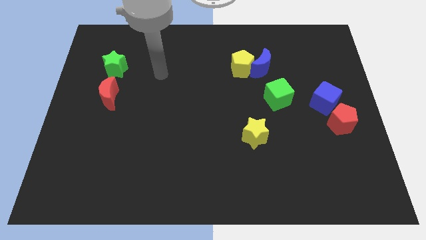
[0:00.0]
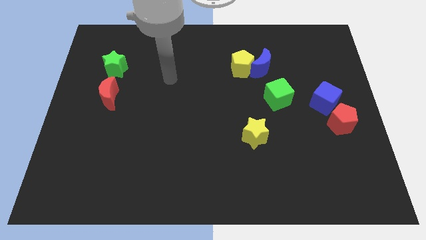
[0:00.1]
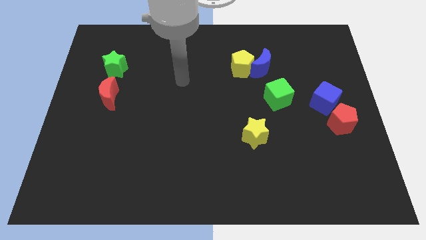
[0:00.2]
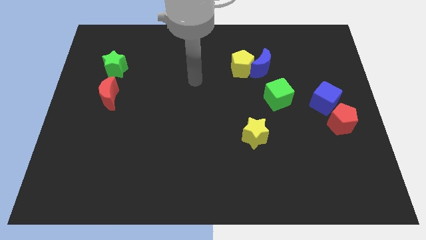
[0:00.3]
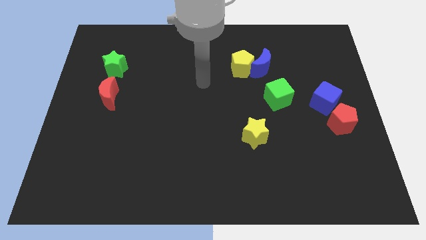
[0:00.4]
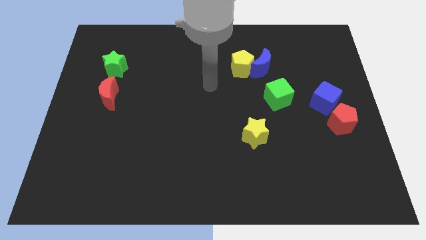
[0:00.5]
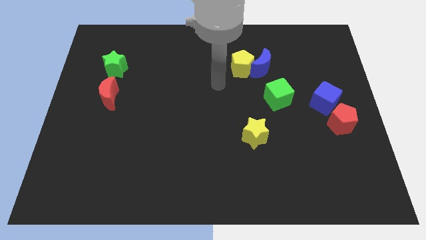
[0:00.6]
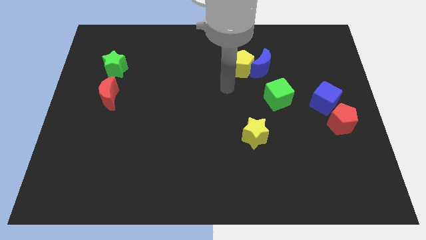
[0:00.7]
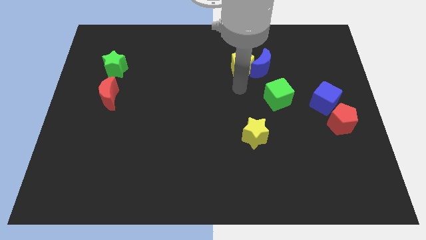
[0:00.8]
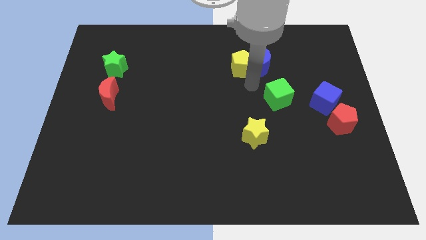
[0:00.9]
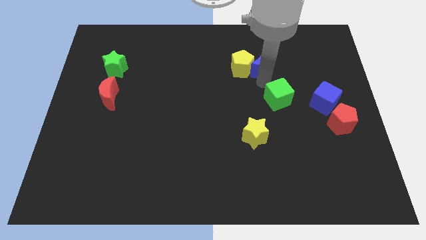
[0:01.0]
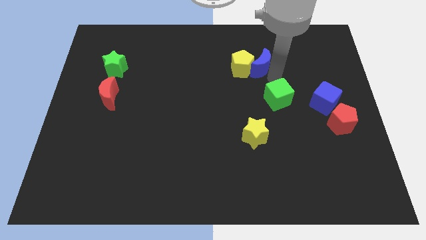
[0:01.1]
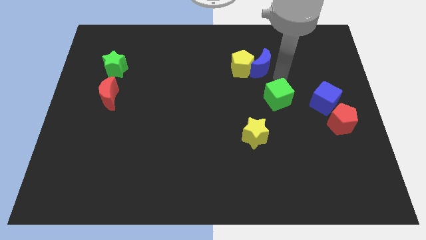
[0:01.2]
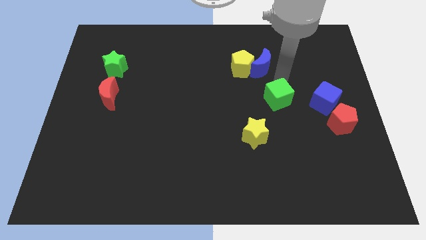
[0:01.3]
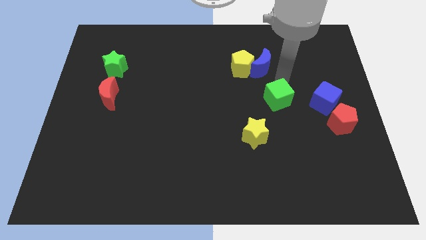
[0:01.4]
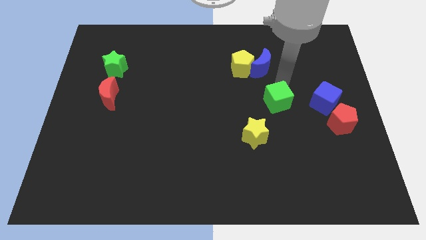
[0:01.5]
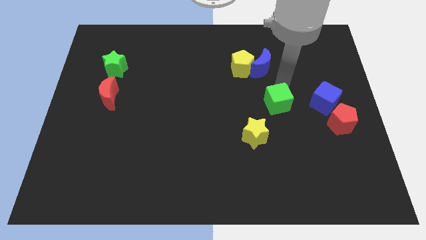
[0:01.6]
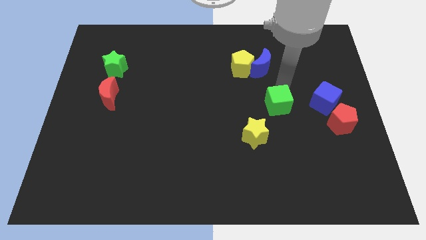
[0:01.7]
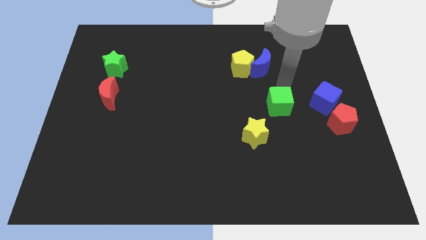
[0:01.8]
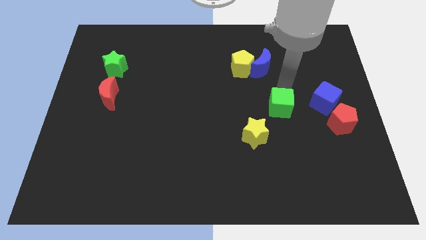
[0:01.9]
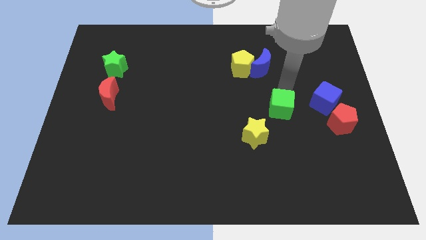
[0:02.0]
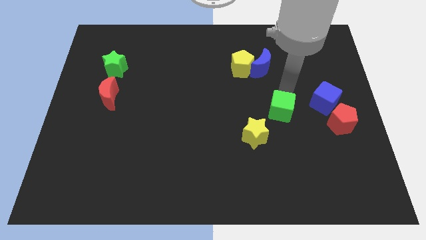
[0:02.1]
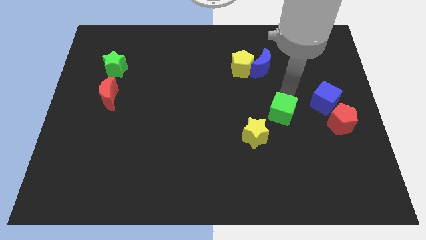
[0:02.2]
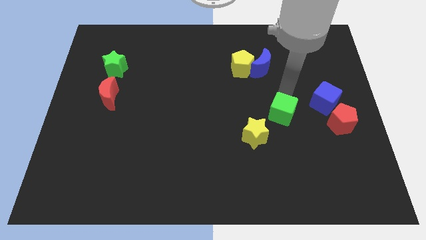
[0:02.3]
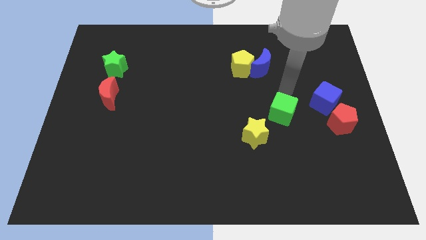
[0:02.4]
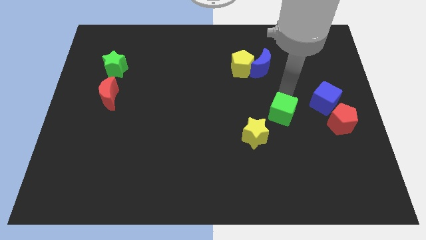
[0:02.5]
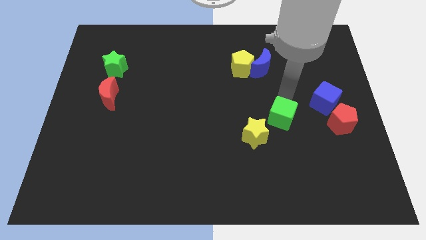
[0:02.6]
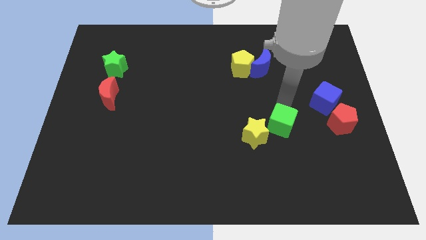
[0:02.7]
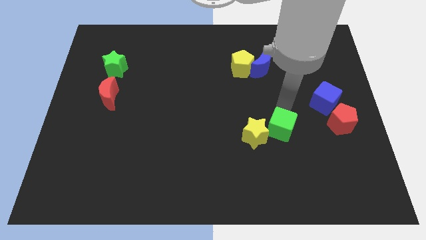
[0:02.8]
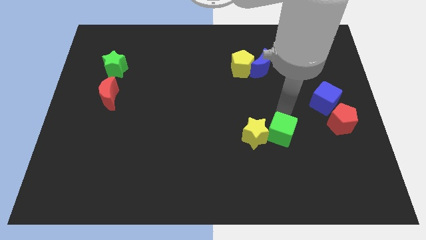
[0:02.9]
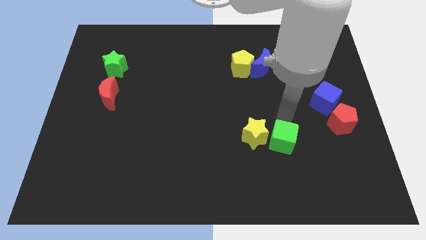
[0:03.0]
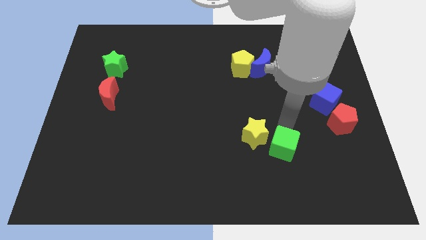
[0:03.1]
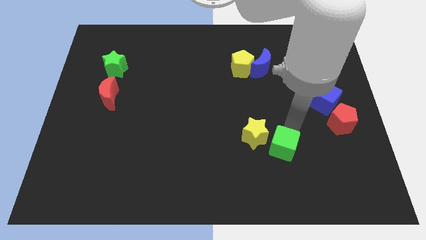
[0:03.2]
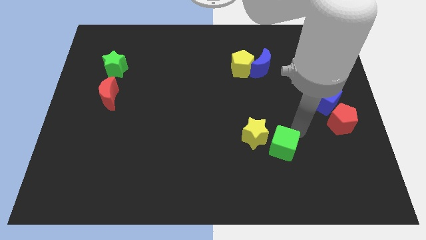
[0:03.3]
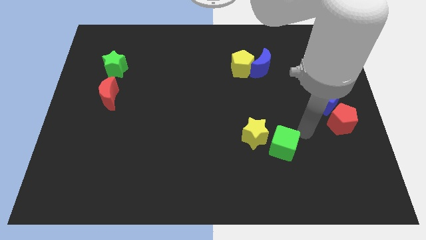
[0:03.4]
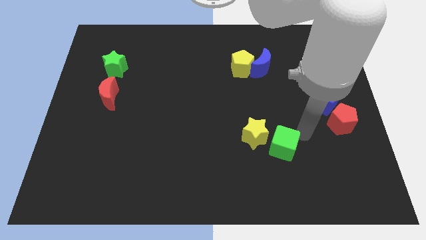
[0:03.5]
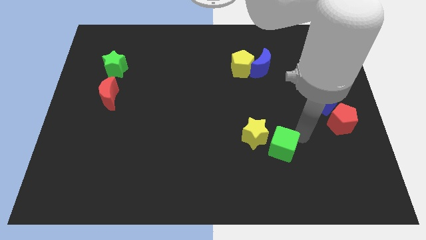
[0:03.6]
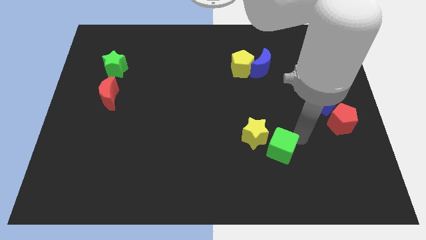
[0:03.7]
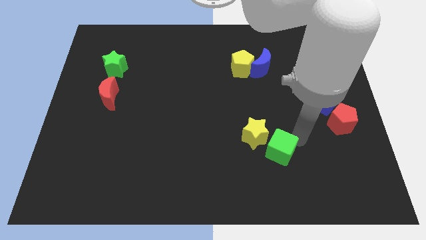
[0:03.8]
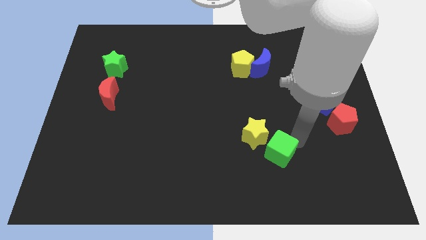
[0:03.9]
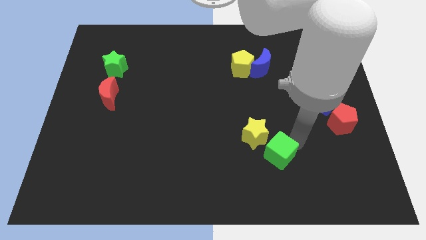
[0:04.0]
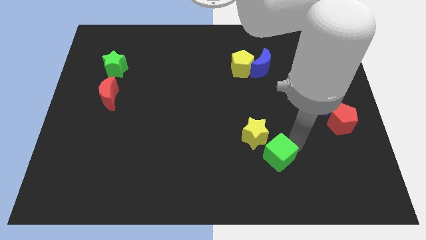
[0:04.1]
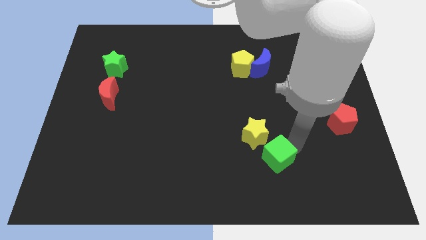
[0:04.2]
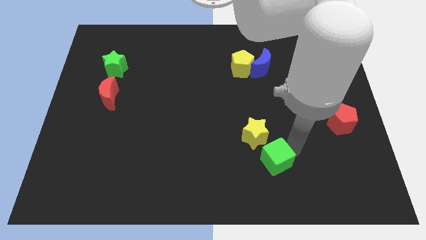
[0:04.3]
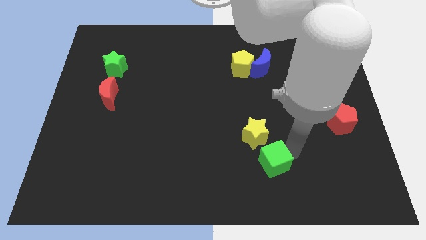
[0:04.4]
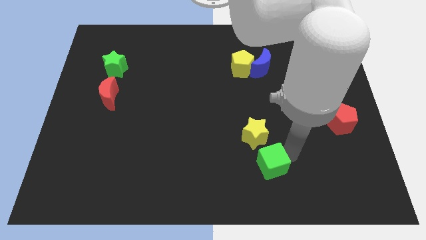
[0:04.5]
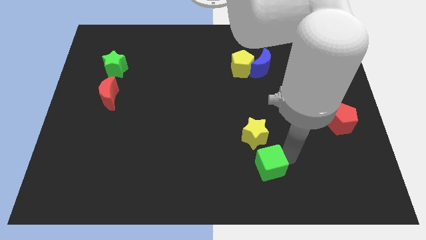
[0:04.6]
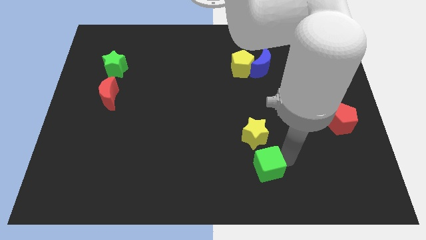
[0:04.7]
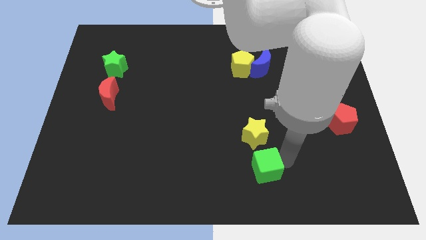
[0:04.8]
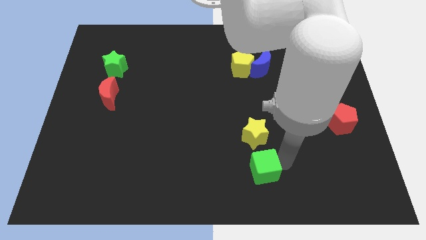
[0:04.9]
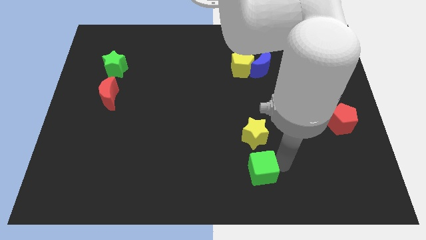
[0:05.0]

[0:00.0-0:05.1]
put the green cube to the bottom side

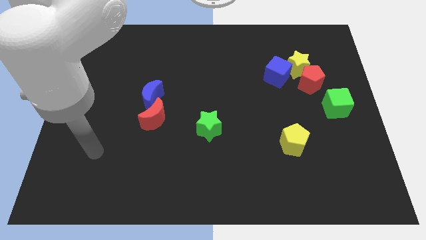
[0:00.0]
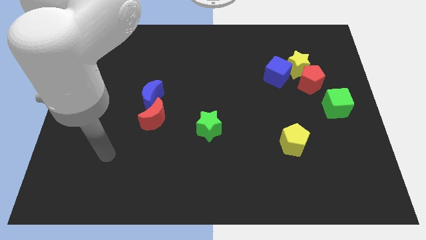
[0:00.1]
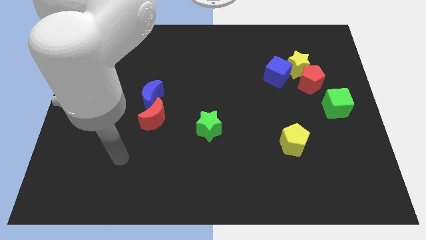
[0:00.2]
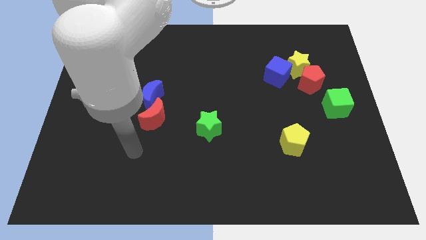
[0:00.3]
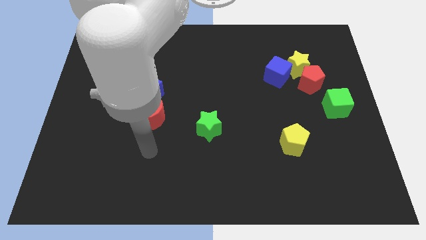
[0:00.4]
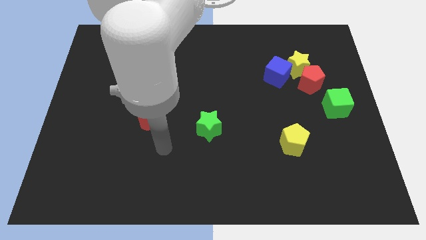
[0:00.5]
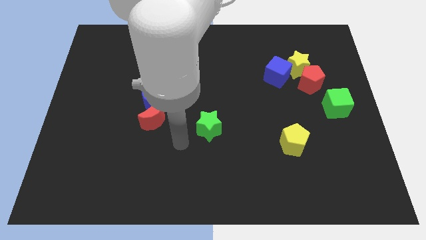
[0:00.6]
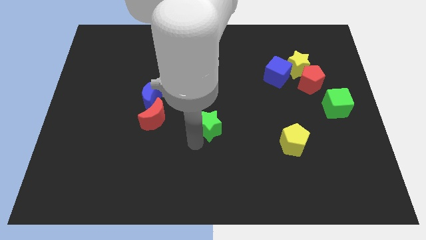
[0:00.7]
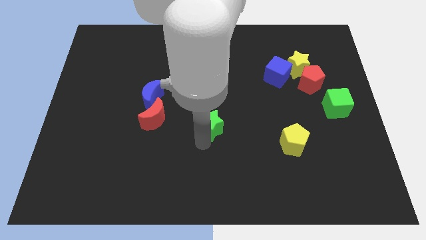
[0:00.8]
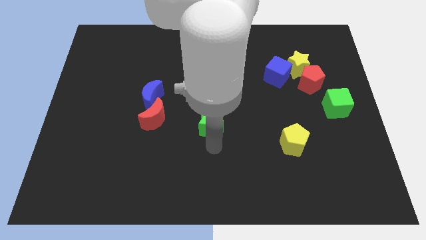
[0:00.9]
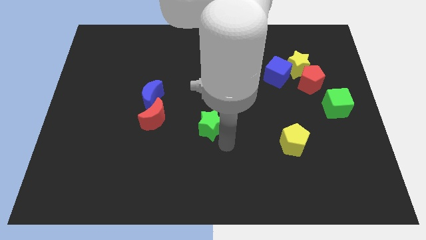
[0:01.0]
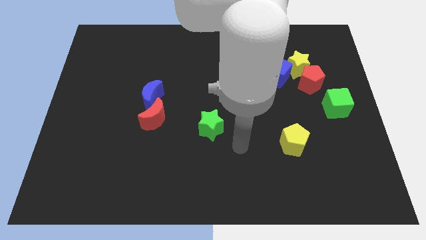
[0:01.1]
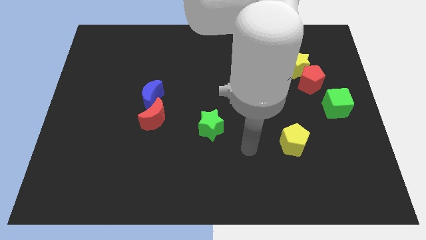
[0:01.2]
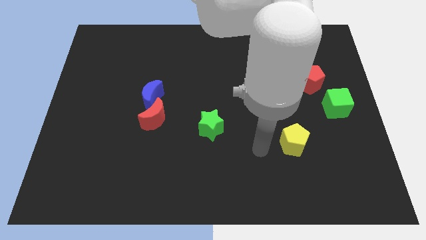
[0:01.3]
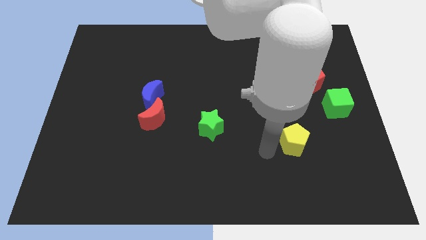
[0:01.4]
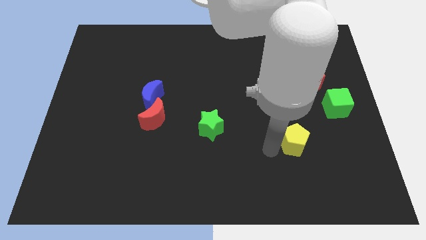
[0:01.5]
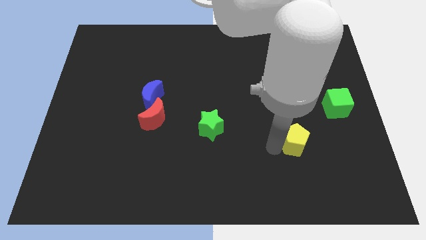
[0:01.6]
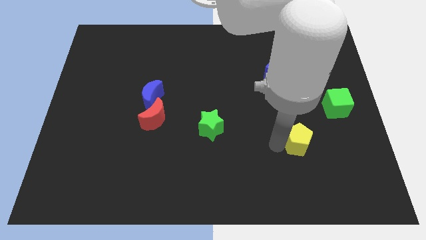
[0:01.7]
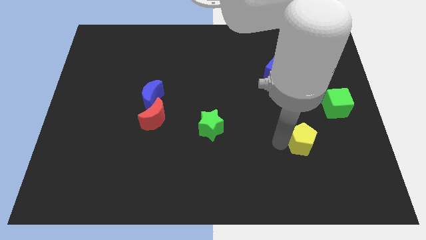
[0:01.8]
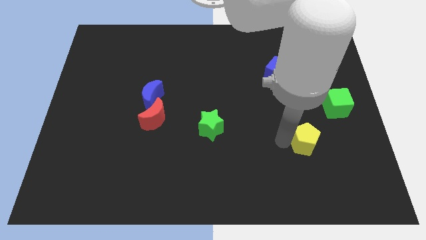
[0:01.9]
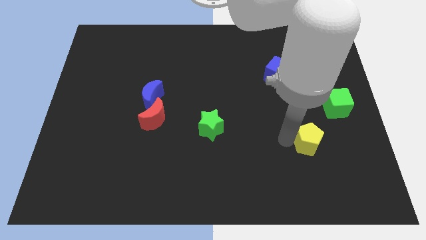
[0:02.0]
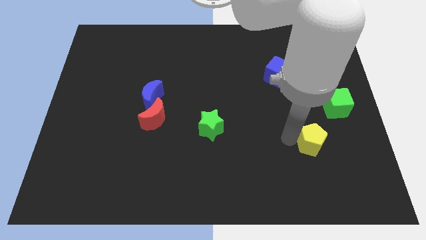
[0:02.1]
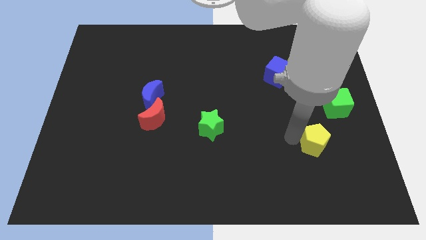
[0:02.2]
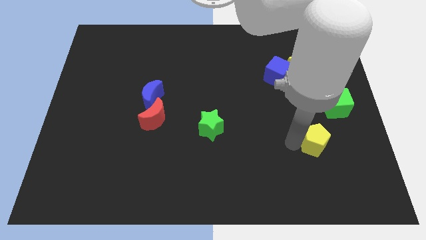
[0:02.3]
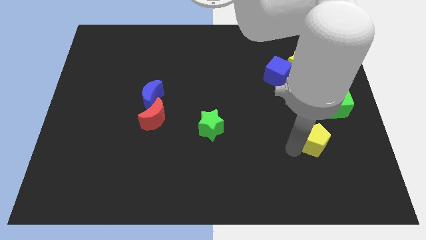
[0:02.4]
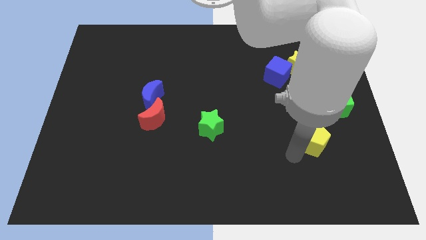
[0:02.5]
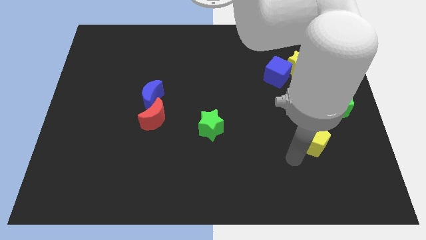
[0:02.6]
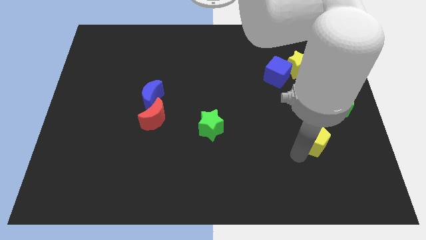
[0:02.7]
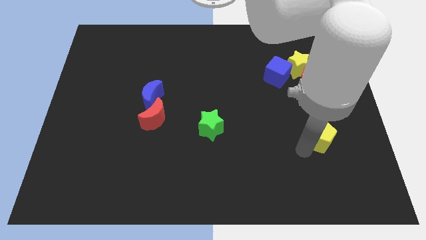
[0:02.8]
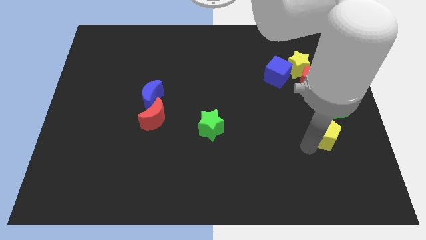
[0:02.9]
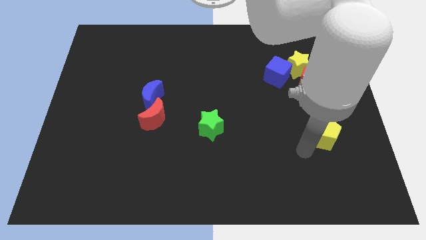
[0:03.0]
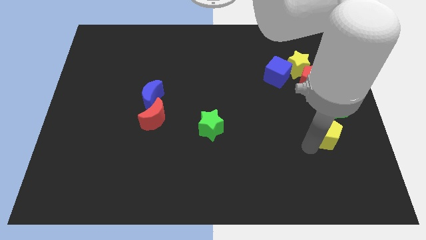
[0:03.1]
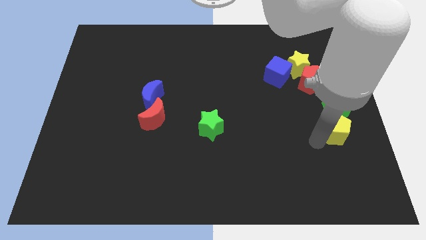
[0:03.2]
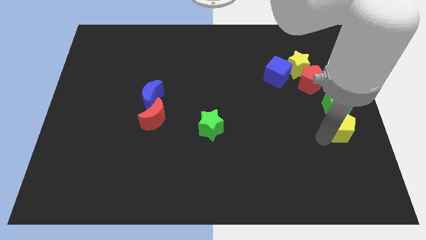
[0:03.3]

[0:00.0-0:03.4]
slide the yellow pentagon to the right side of the board
